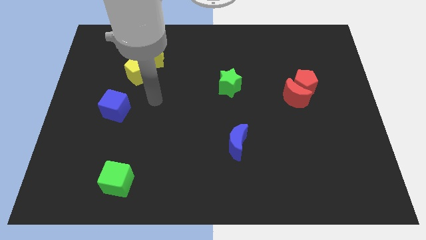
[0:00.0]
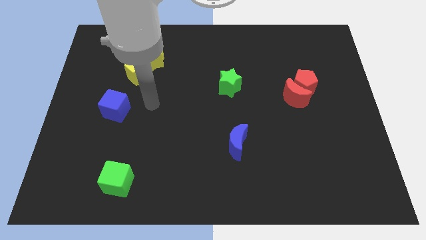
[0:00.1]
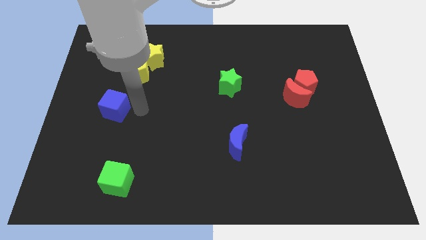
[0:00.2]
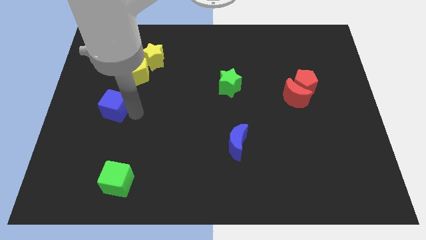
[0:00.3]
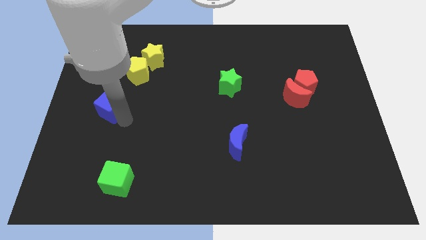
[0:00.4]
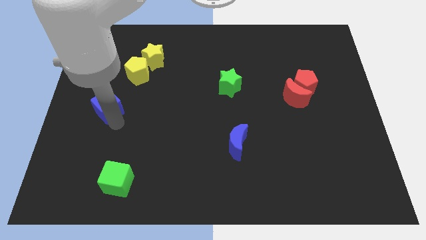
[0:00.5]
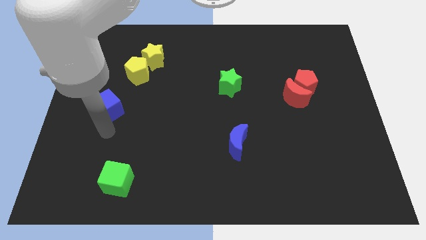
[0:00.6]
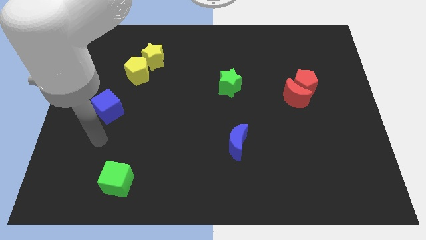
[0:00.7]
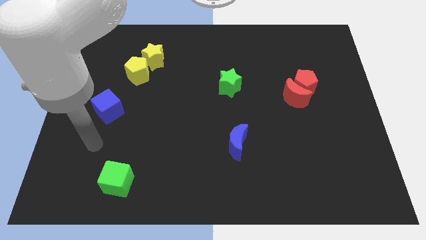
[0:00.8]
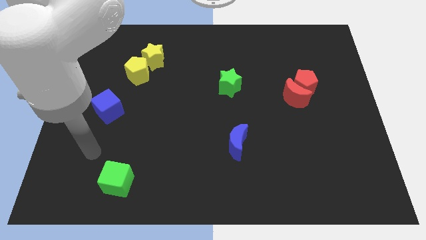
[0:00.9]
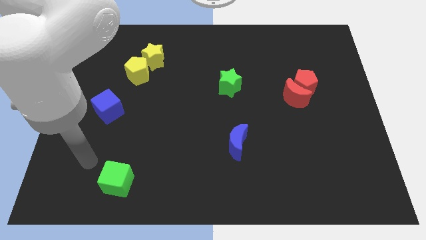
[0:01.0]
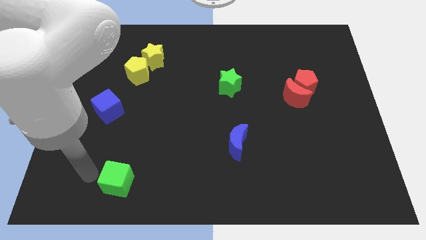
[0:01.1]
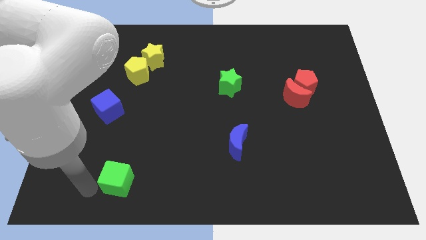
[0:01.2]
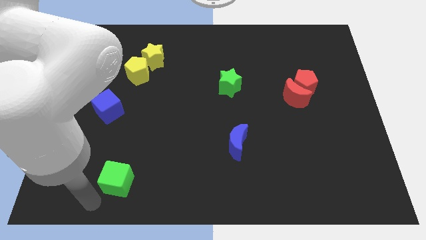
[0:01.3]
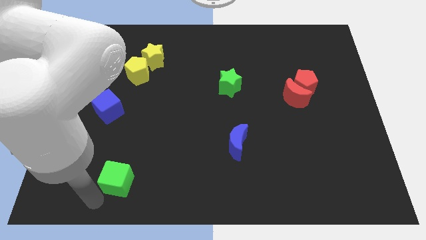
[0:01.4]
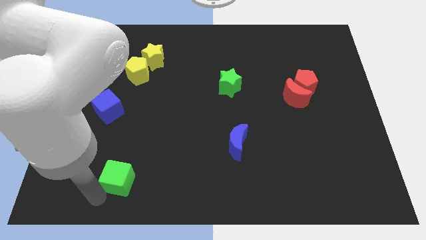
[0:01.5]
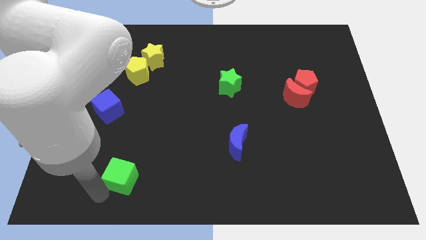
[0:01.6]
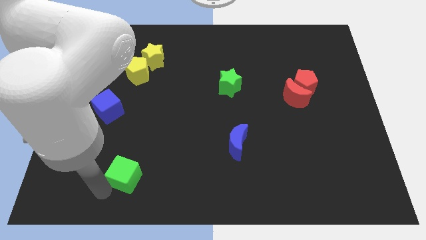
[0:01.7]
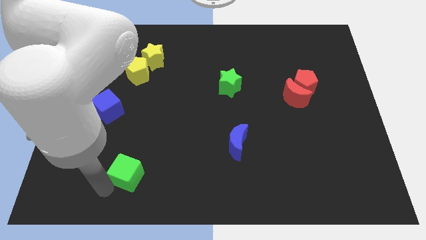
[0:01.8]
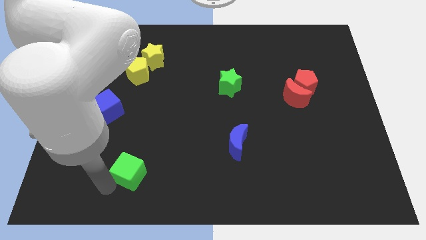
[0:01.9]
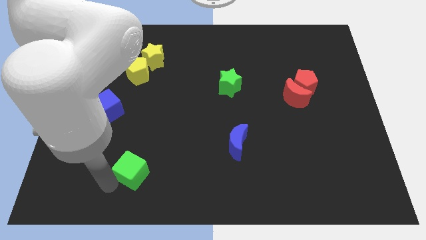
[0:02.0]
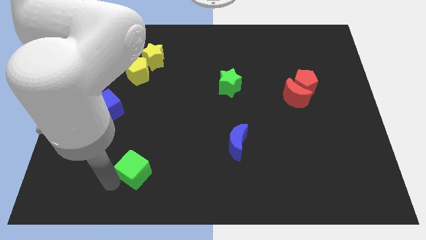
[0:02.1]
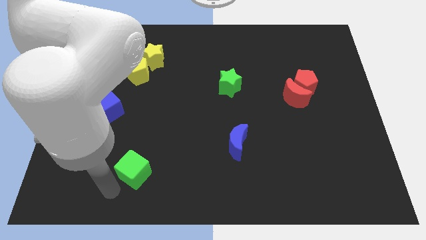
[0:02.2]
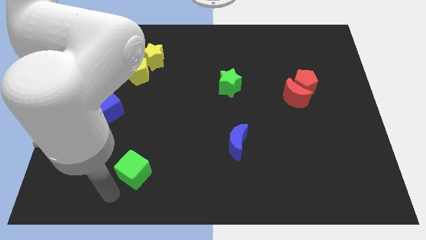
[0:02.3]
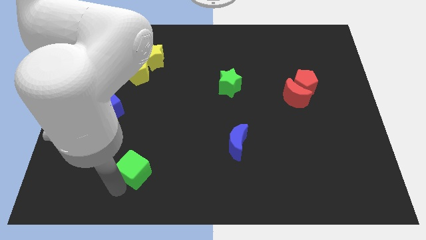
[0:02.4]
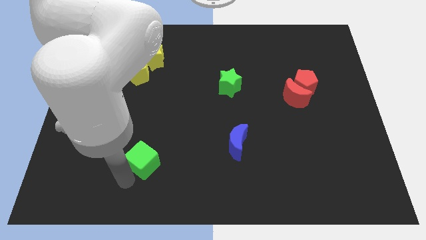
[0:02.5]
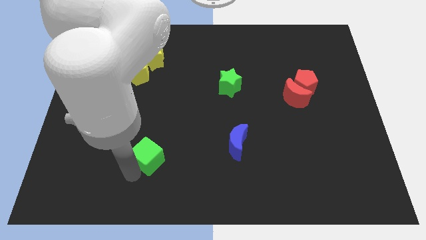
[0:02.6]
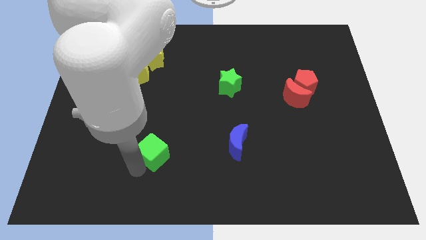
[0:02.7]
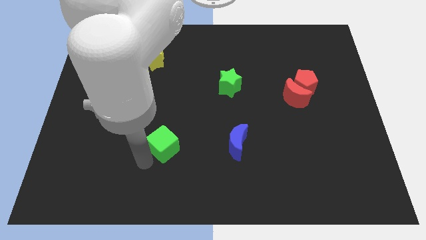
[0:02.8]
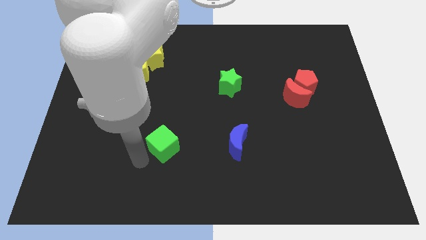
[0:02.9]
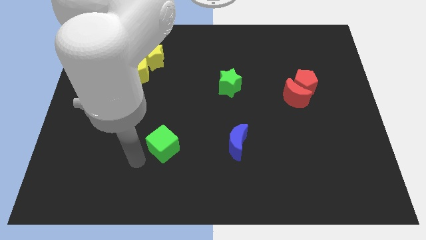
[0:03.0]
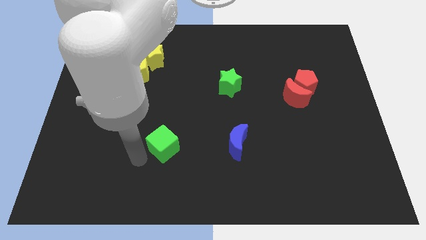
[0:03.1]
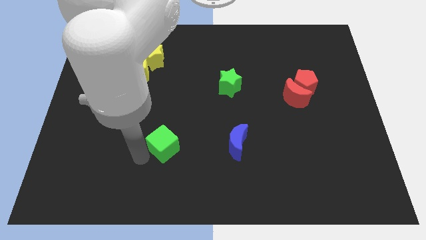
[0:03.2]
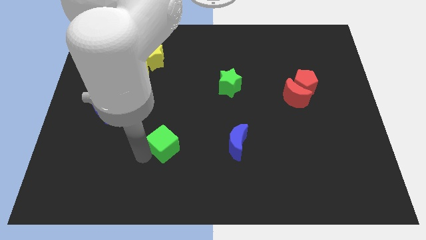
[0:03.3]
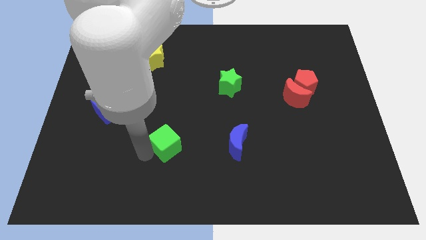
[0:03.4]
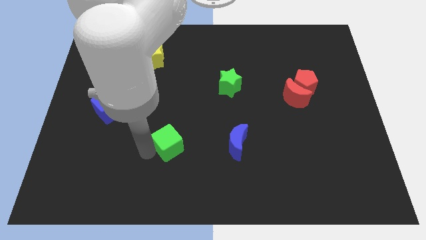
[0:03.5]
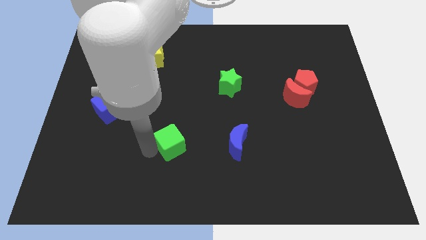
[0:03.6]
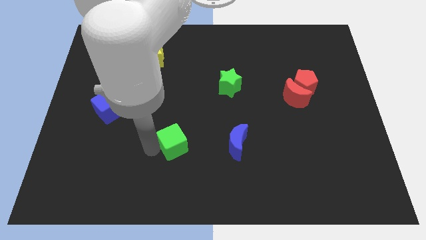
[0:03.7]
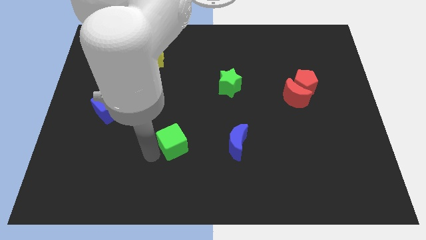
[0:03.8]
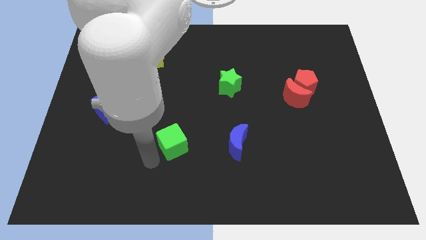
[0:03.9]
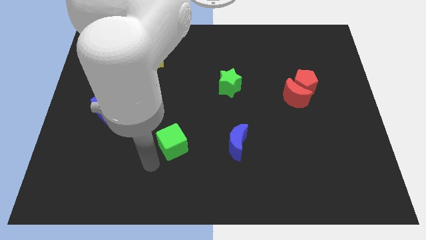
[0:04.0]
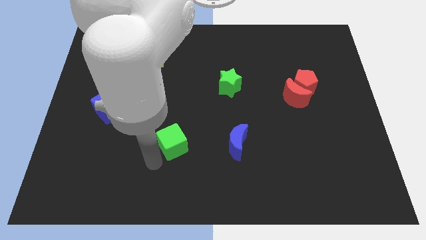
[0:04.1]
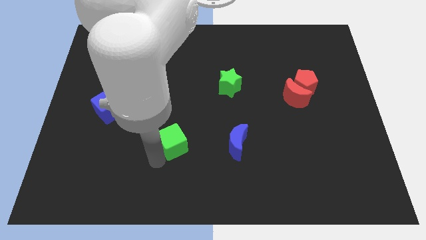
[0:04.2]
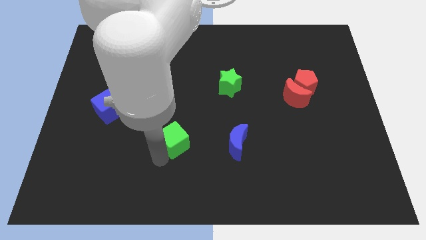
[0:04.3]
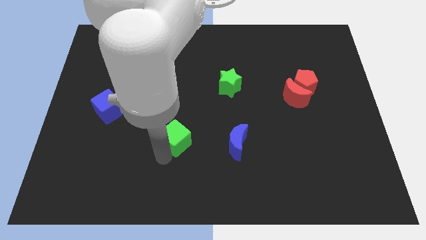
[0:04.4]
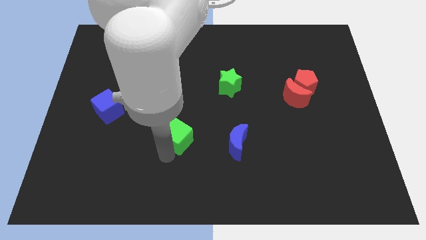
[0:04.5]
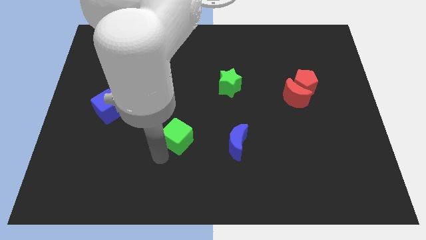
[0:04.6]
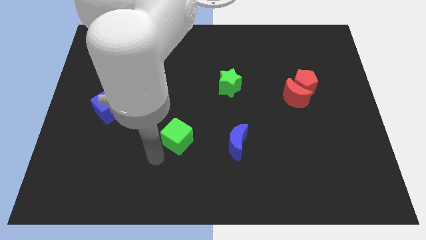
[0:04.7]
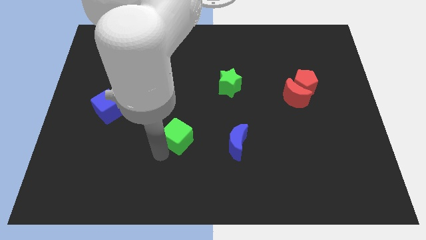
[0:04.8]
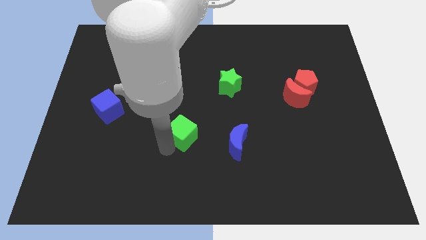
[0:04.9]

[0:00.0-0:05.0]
put the green cube to the center

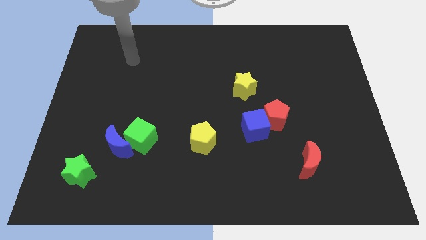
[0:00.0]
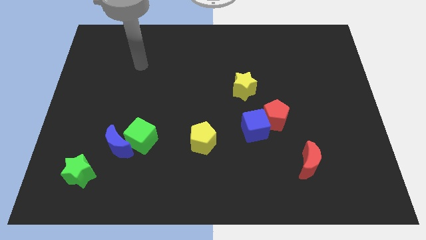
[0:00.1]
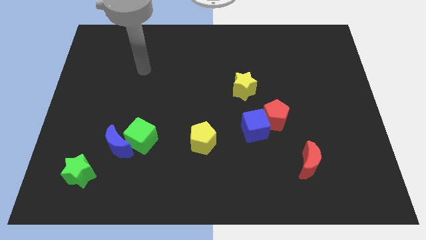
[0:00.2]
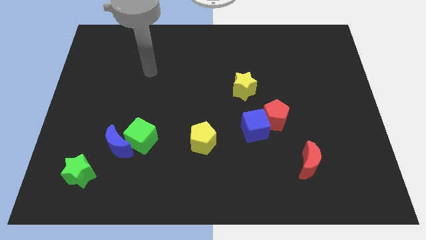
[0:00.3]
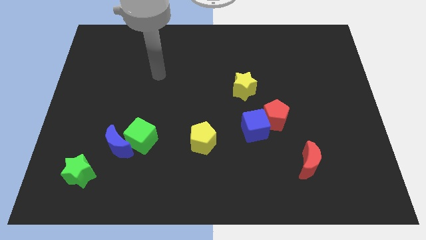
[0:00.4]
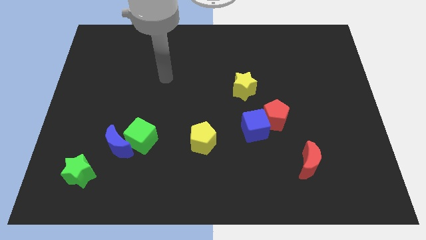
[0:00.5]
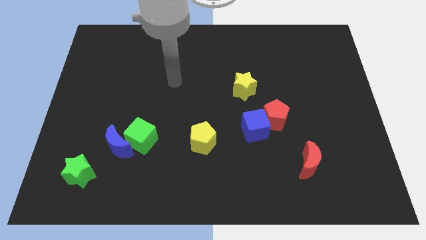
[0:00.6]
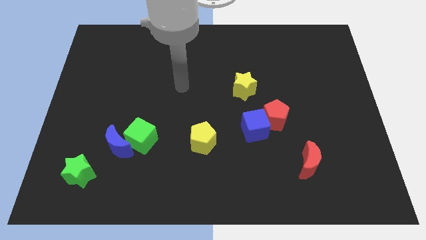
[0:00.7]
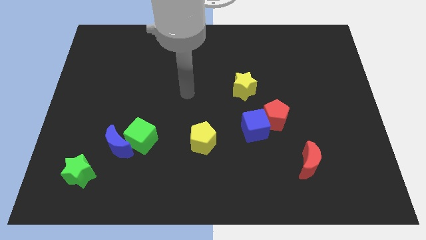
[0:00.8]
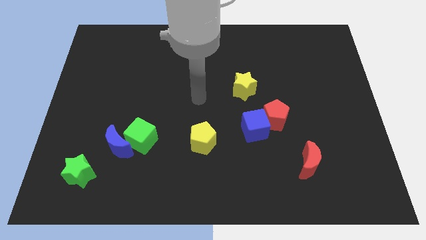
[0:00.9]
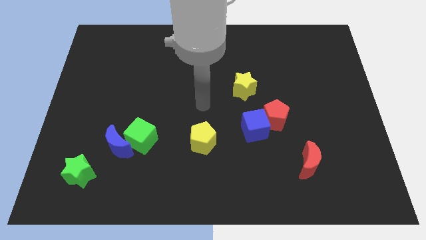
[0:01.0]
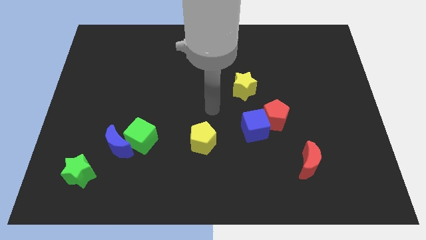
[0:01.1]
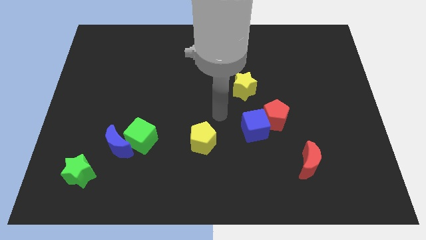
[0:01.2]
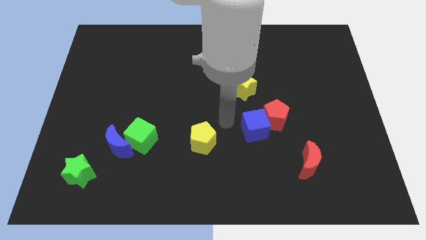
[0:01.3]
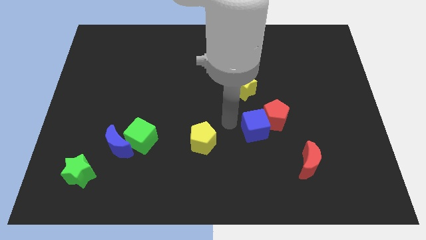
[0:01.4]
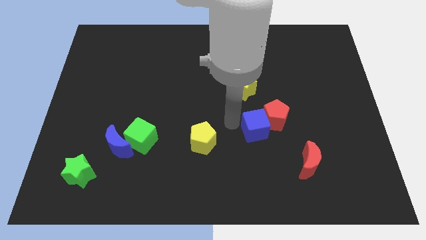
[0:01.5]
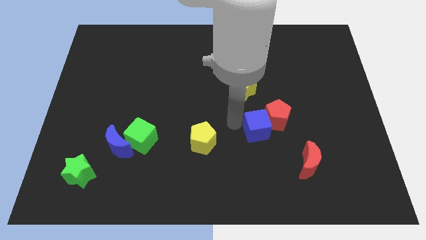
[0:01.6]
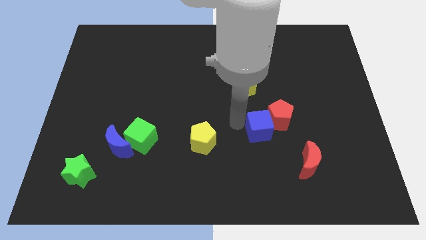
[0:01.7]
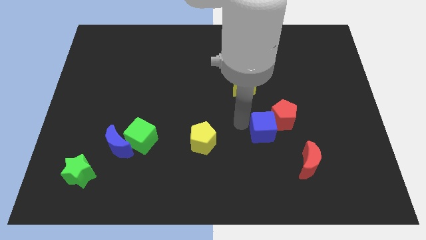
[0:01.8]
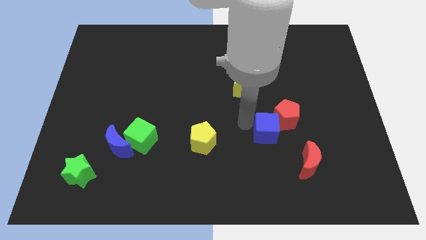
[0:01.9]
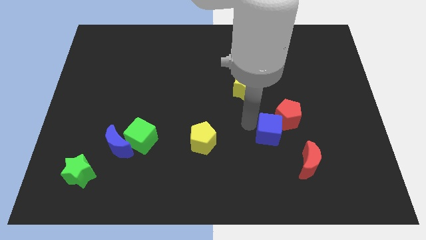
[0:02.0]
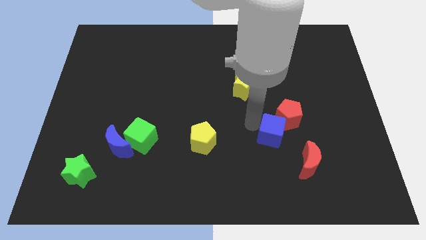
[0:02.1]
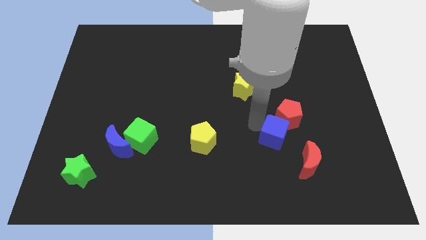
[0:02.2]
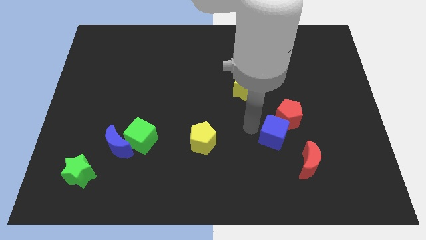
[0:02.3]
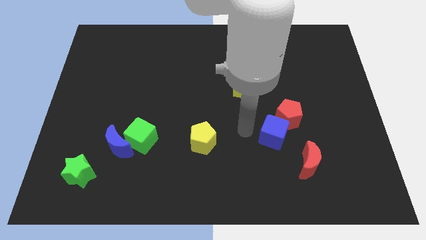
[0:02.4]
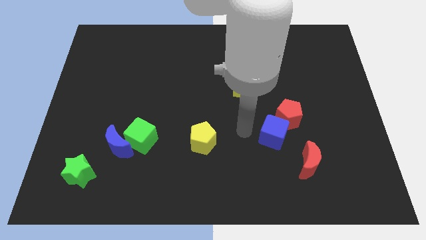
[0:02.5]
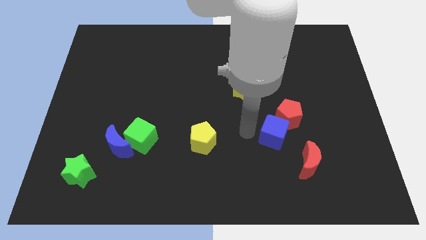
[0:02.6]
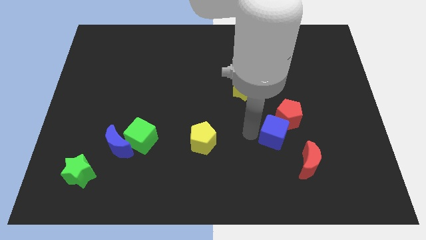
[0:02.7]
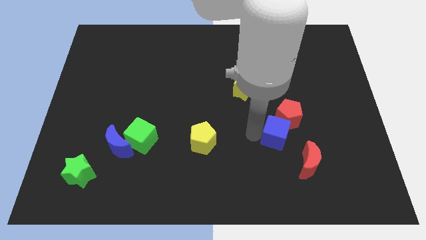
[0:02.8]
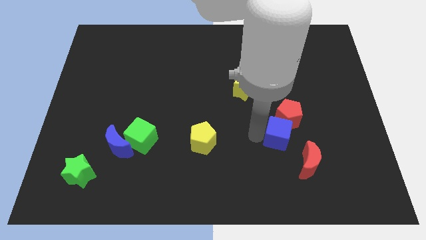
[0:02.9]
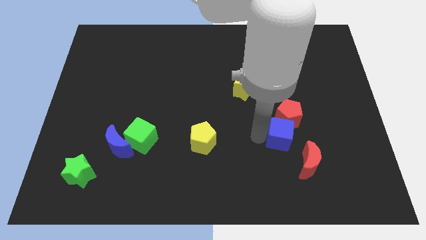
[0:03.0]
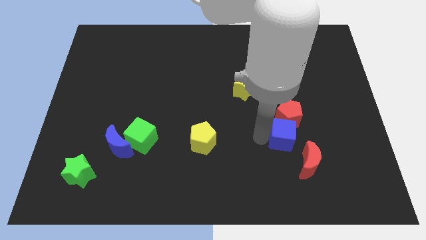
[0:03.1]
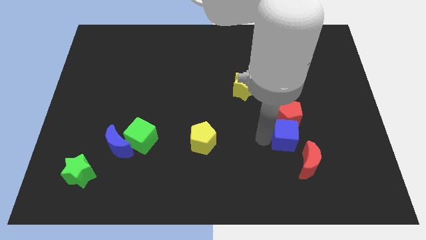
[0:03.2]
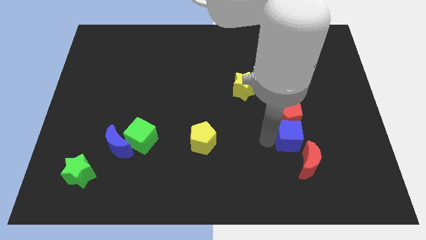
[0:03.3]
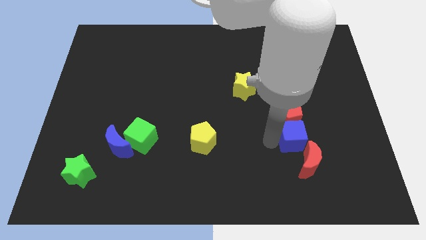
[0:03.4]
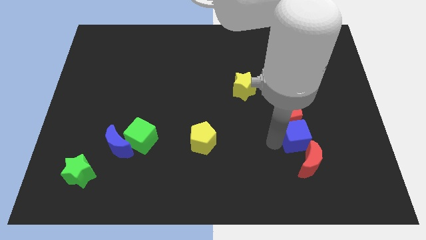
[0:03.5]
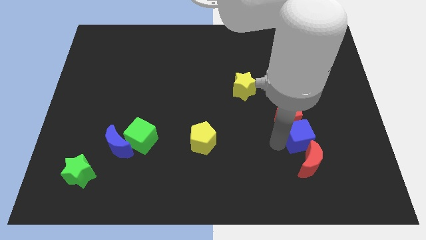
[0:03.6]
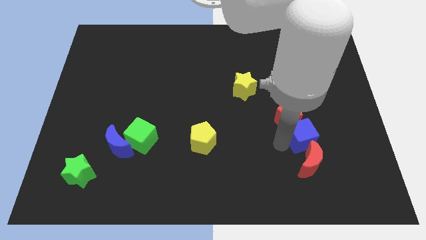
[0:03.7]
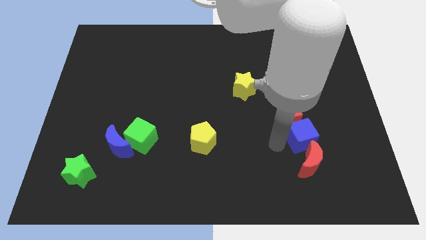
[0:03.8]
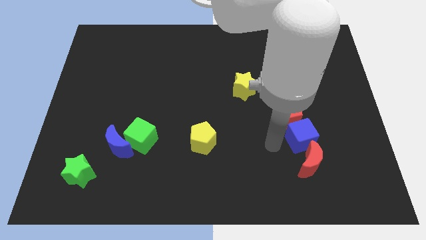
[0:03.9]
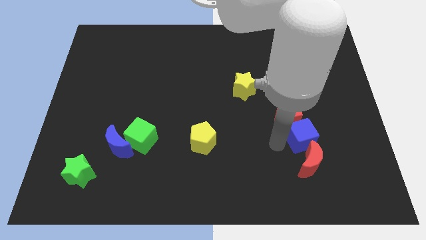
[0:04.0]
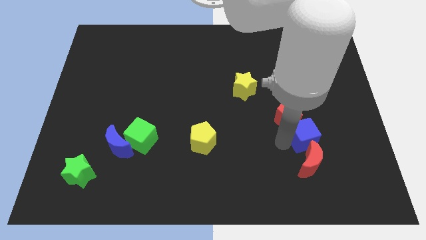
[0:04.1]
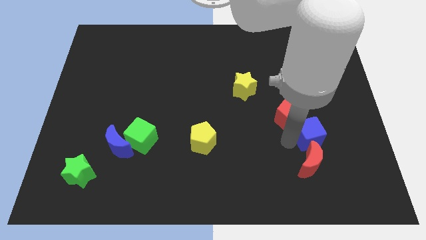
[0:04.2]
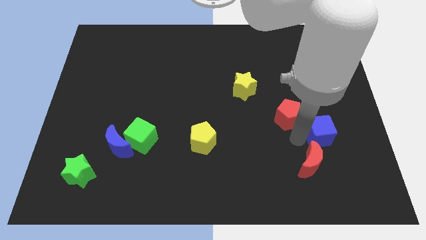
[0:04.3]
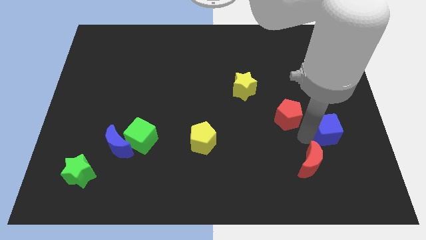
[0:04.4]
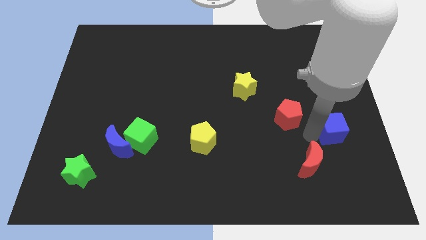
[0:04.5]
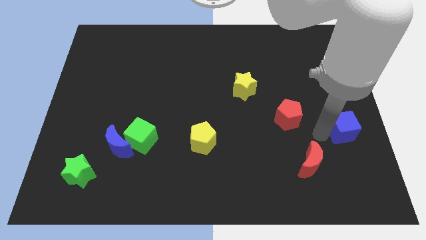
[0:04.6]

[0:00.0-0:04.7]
slide the blue cube to the right side
